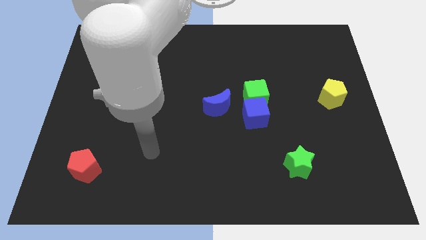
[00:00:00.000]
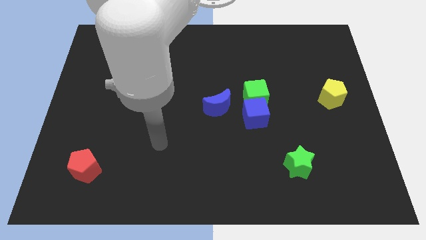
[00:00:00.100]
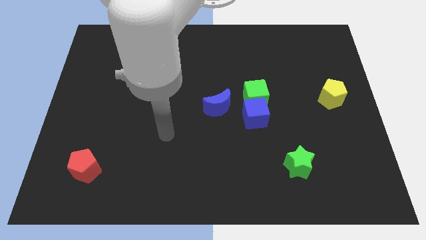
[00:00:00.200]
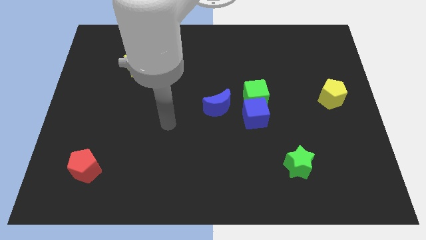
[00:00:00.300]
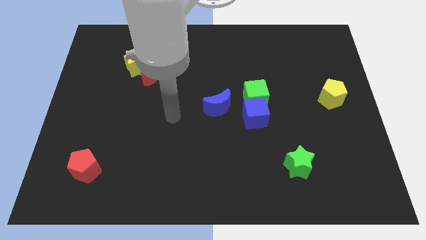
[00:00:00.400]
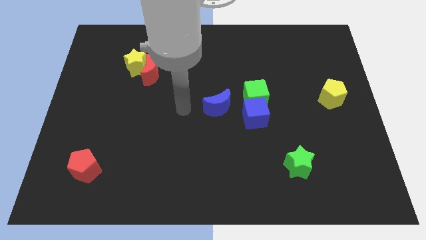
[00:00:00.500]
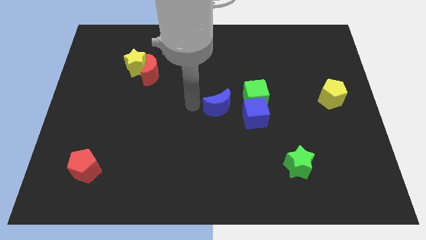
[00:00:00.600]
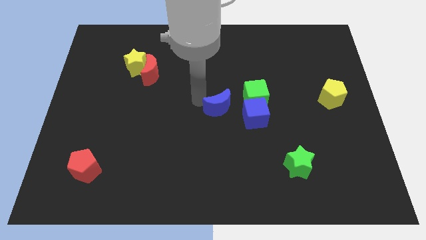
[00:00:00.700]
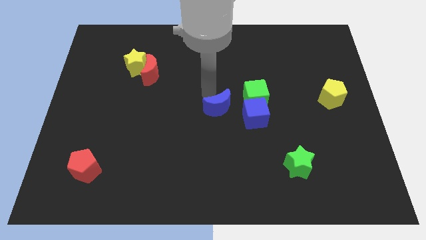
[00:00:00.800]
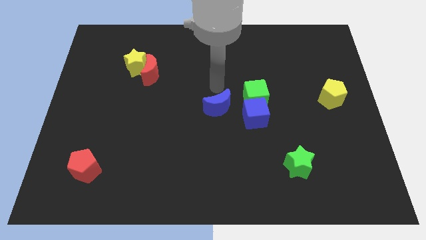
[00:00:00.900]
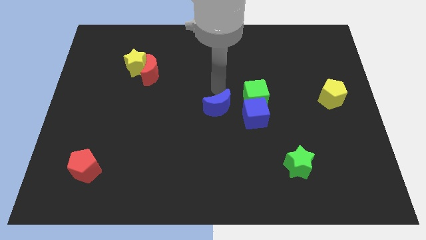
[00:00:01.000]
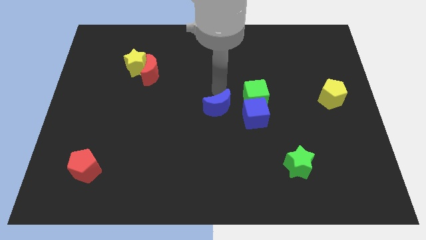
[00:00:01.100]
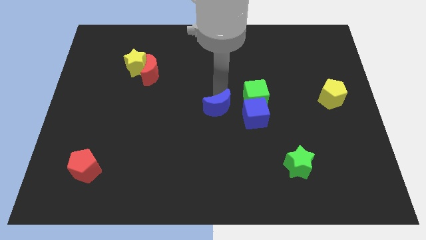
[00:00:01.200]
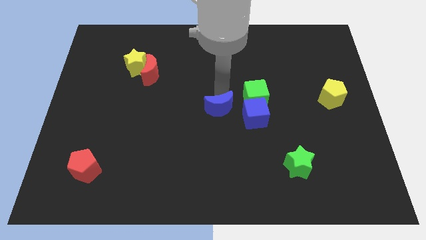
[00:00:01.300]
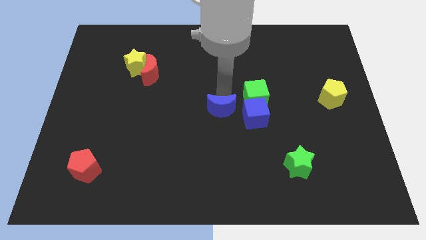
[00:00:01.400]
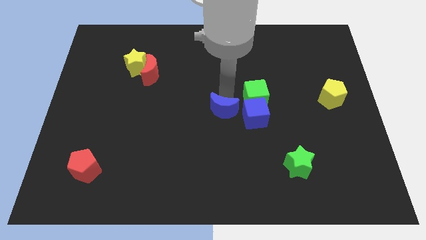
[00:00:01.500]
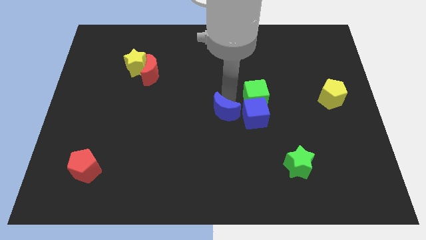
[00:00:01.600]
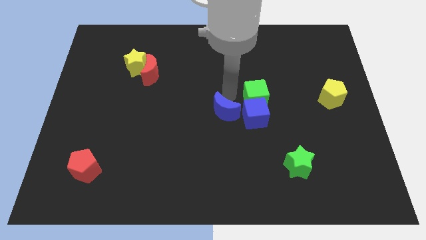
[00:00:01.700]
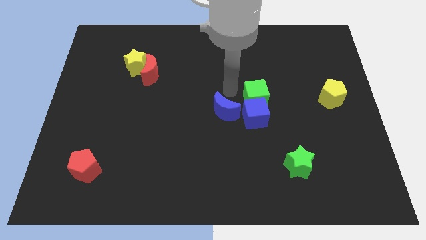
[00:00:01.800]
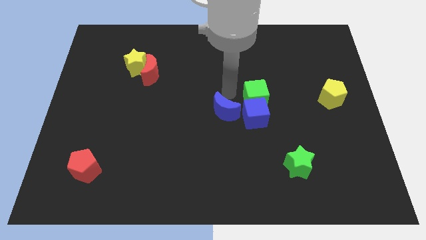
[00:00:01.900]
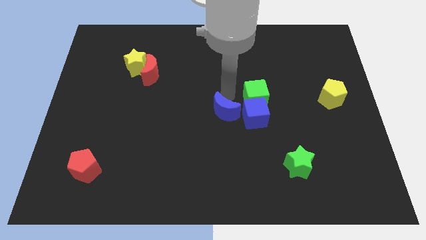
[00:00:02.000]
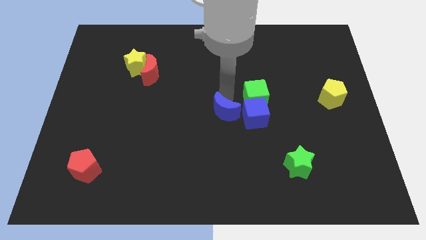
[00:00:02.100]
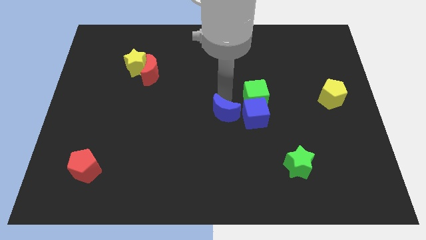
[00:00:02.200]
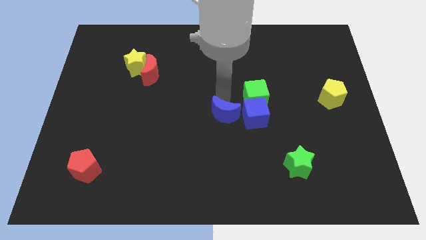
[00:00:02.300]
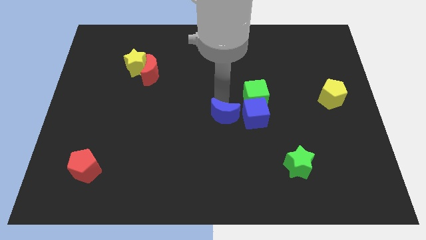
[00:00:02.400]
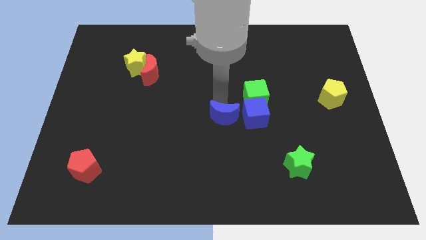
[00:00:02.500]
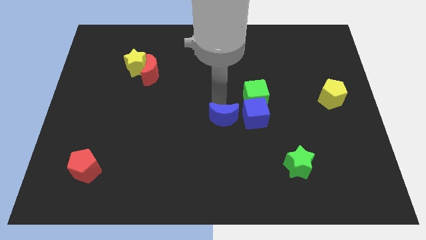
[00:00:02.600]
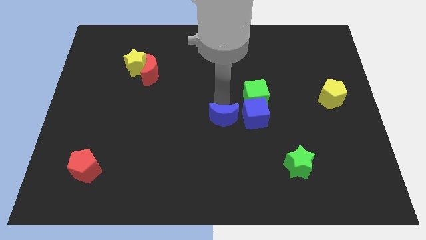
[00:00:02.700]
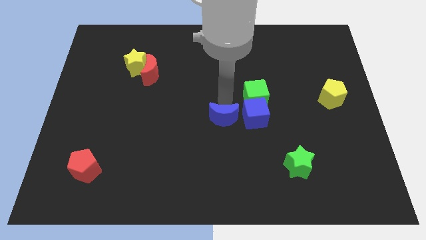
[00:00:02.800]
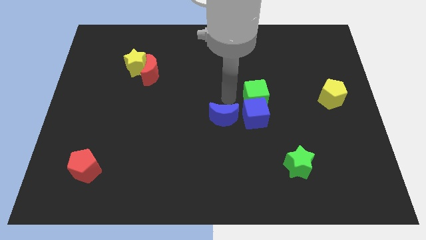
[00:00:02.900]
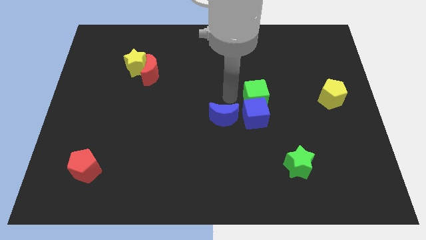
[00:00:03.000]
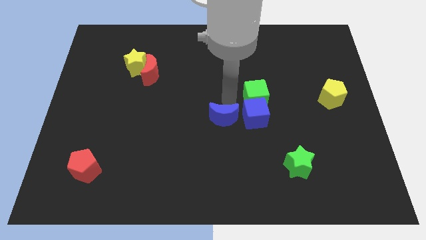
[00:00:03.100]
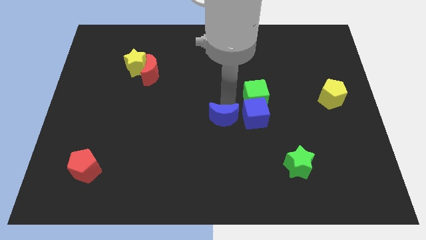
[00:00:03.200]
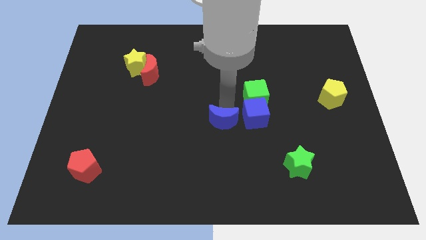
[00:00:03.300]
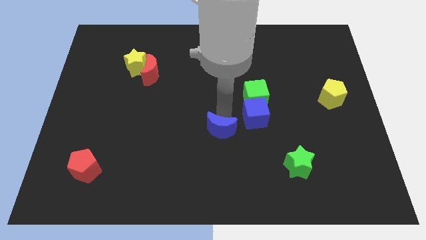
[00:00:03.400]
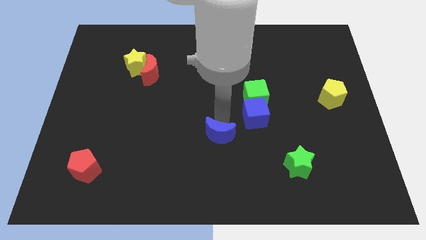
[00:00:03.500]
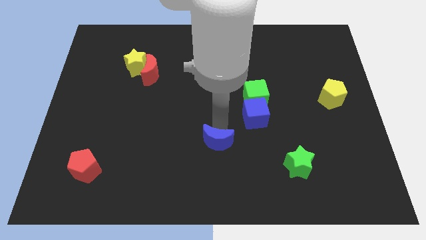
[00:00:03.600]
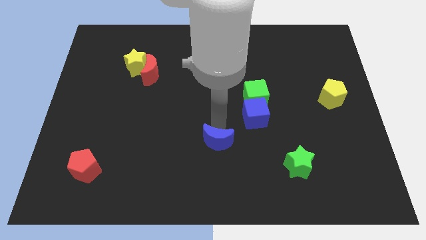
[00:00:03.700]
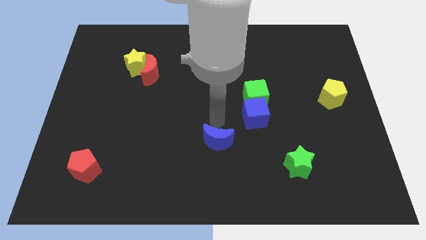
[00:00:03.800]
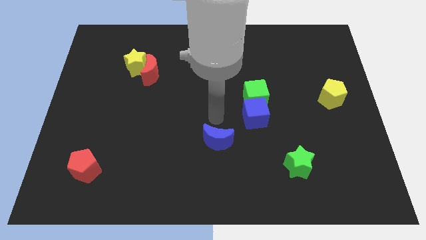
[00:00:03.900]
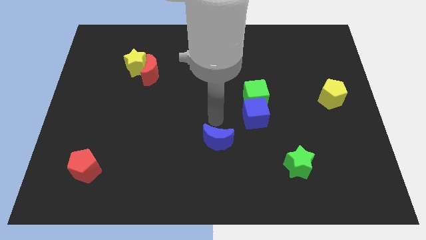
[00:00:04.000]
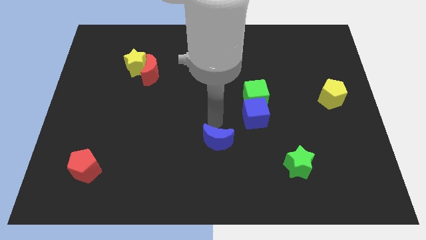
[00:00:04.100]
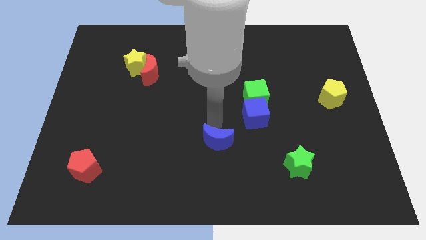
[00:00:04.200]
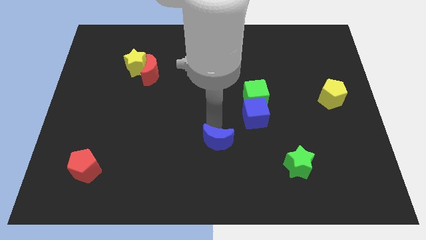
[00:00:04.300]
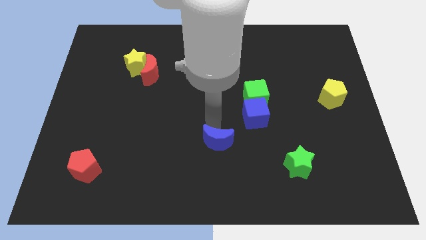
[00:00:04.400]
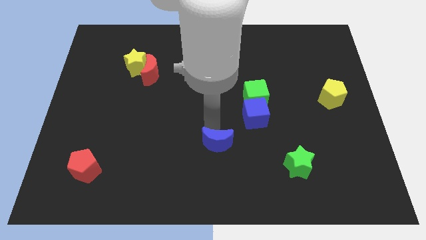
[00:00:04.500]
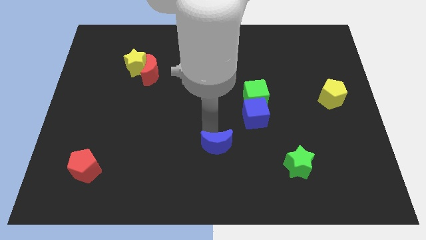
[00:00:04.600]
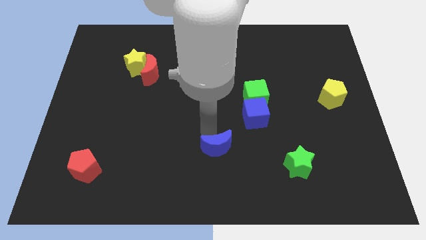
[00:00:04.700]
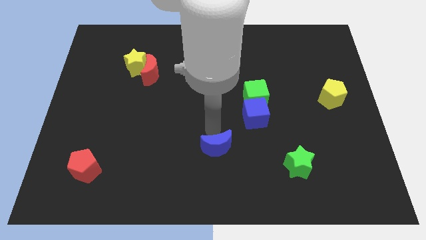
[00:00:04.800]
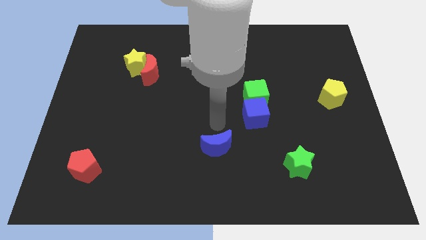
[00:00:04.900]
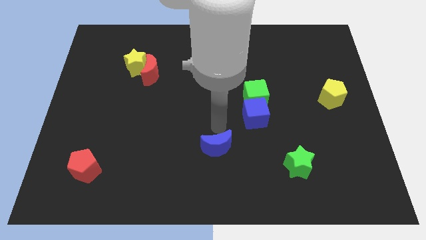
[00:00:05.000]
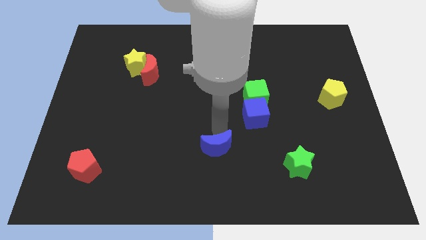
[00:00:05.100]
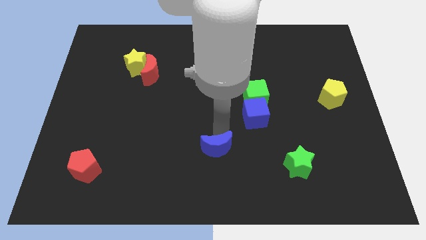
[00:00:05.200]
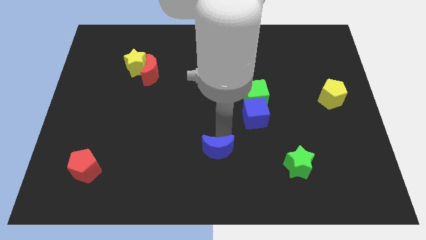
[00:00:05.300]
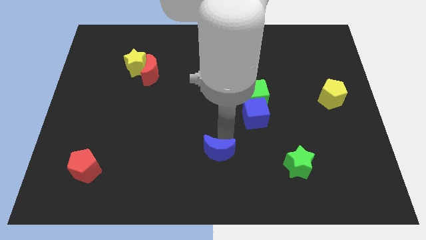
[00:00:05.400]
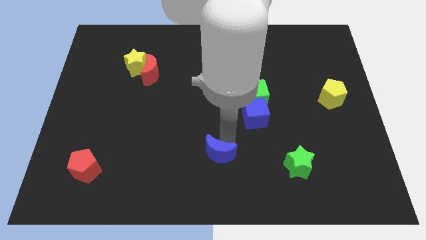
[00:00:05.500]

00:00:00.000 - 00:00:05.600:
move the blue moon to the bottom

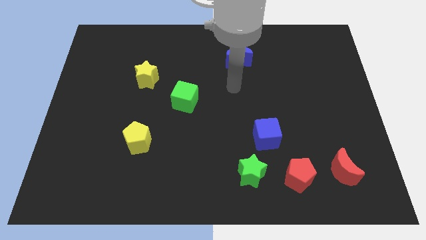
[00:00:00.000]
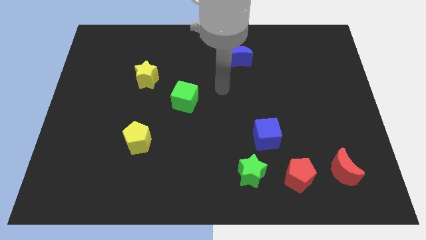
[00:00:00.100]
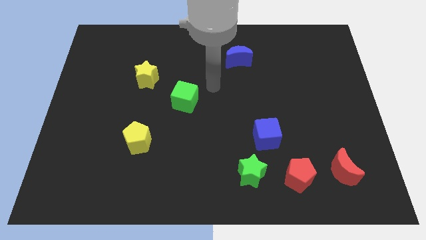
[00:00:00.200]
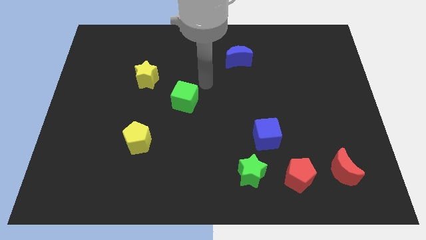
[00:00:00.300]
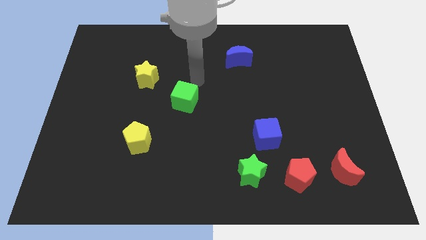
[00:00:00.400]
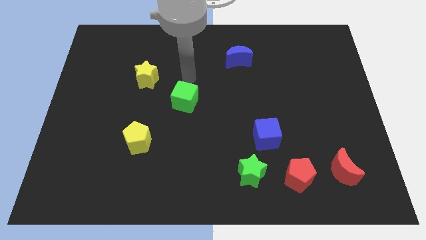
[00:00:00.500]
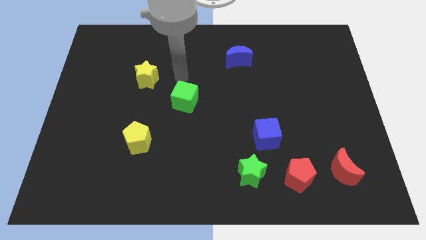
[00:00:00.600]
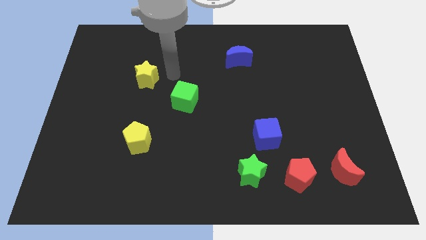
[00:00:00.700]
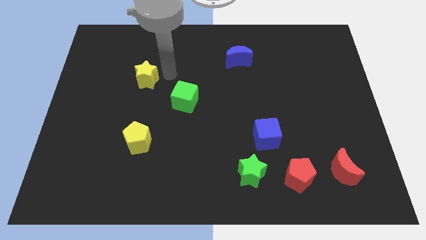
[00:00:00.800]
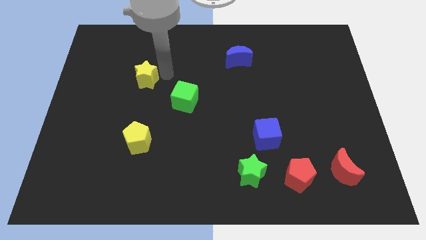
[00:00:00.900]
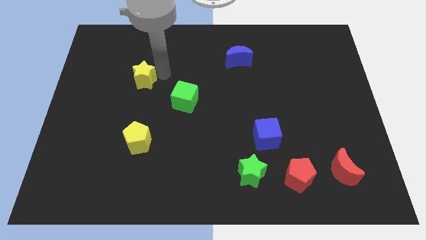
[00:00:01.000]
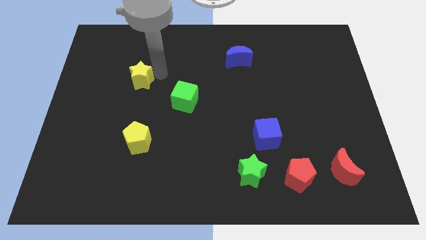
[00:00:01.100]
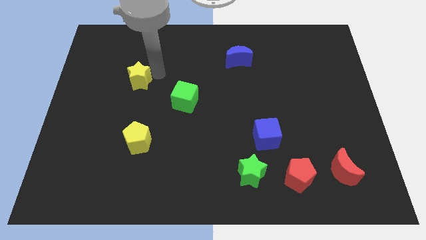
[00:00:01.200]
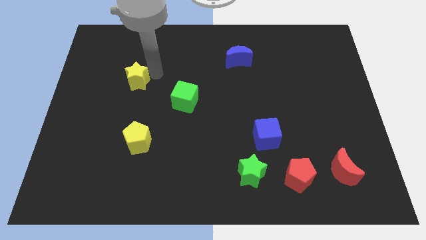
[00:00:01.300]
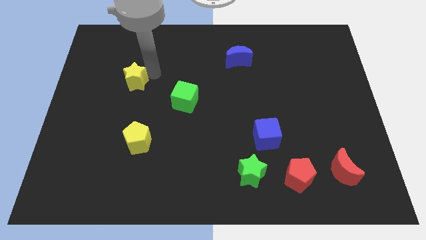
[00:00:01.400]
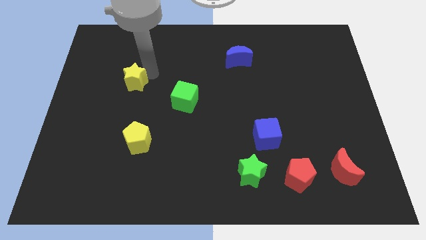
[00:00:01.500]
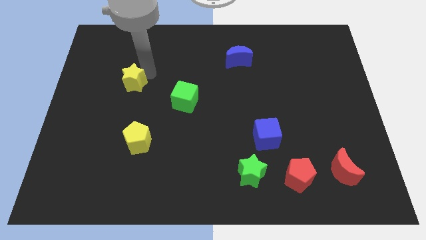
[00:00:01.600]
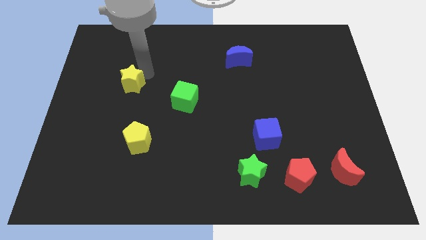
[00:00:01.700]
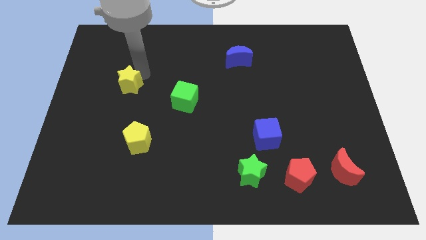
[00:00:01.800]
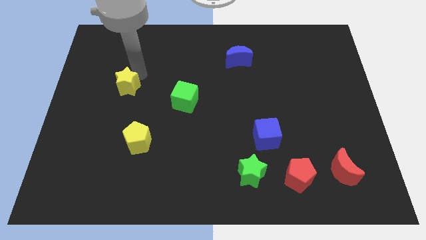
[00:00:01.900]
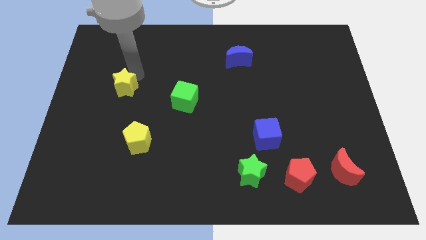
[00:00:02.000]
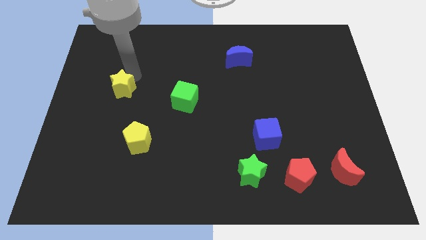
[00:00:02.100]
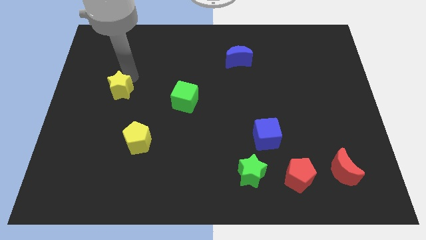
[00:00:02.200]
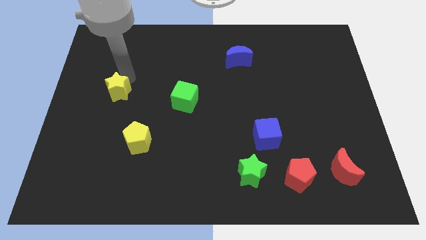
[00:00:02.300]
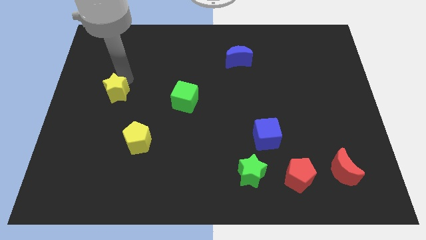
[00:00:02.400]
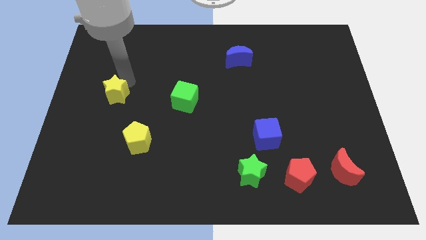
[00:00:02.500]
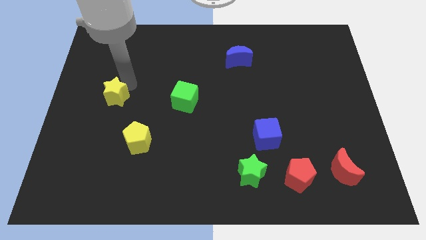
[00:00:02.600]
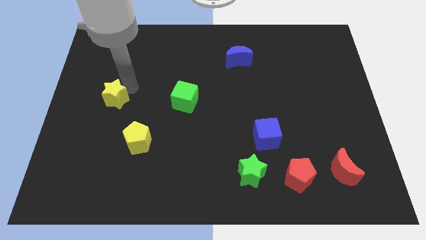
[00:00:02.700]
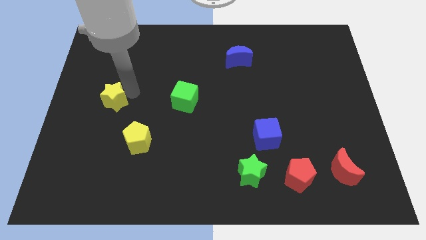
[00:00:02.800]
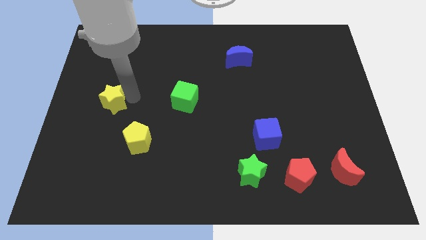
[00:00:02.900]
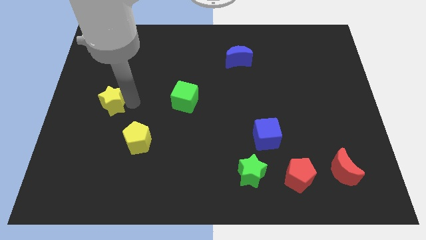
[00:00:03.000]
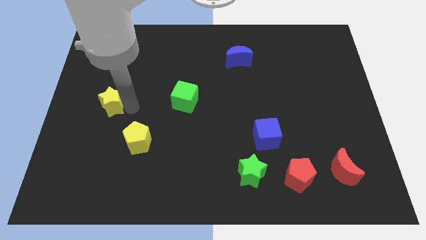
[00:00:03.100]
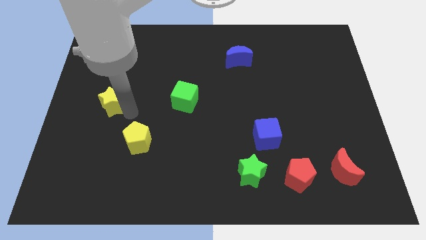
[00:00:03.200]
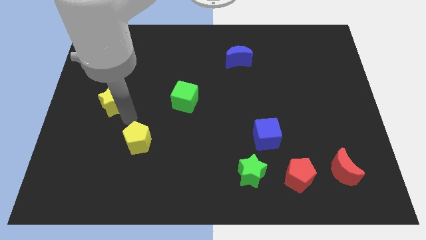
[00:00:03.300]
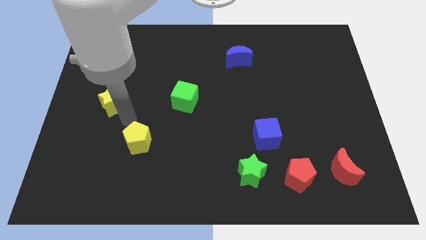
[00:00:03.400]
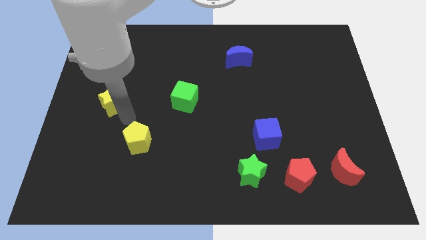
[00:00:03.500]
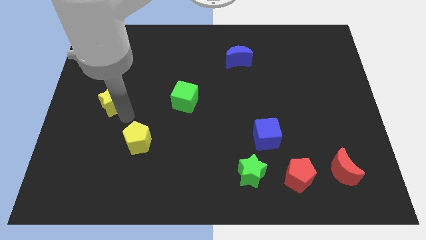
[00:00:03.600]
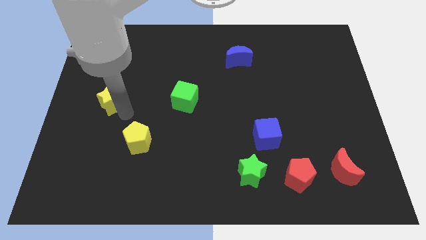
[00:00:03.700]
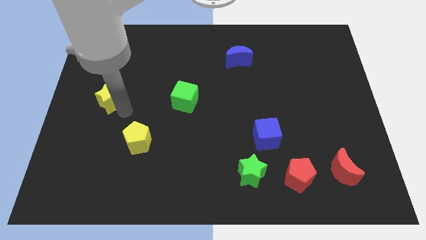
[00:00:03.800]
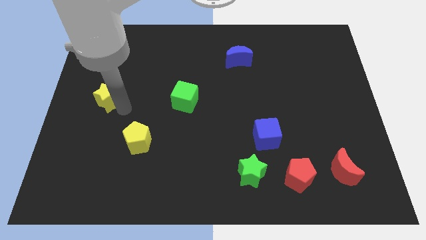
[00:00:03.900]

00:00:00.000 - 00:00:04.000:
move the yellow star to the center left
